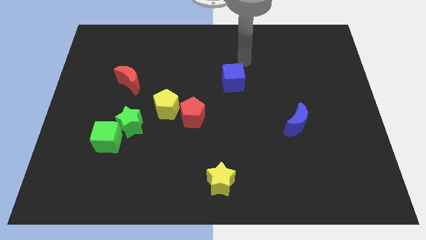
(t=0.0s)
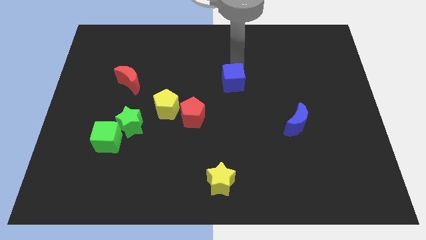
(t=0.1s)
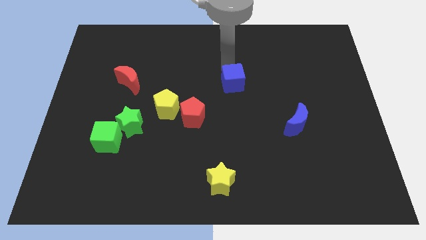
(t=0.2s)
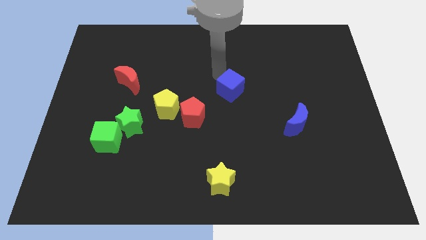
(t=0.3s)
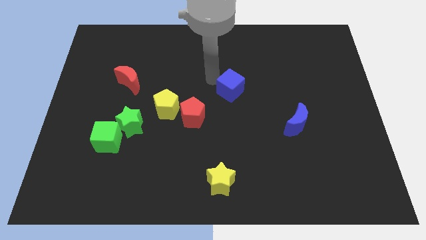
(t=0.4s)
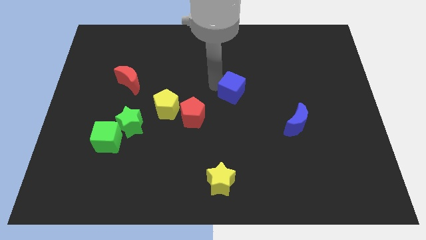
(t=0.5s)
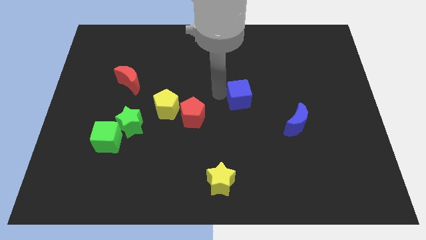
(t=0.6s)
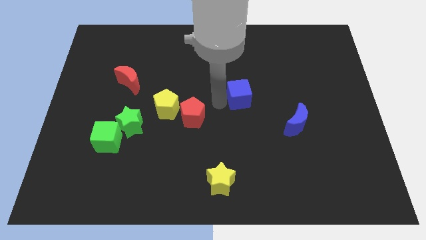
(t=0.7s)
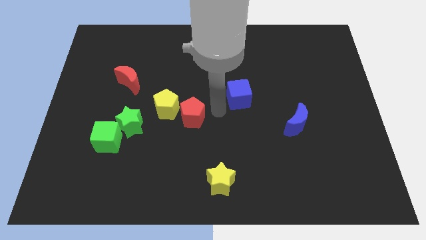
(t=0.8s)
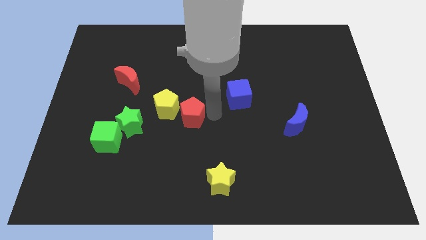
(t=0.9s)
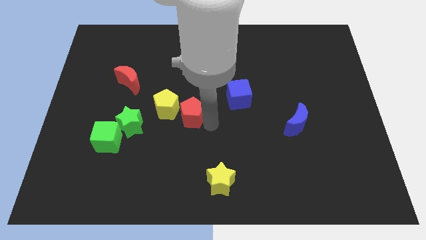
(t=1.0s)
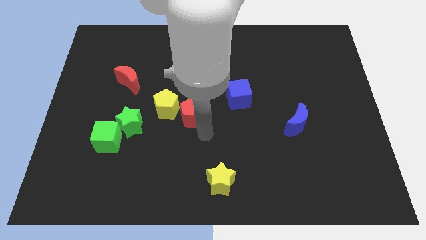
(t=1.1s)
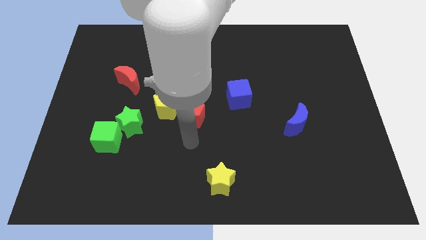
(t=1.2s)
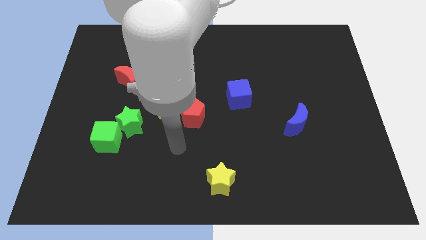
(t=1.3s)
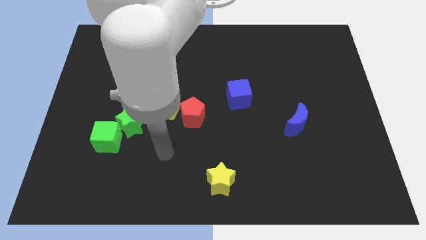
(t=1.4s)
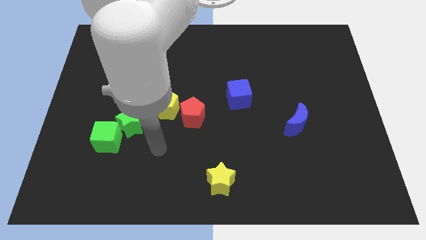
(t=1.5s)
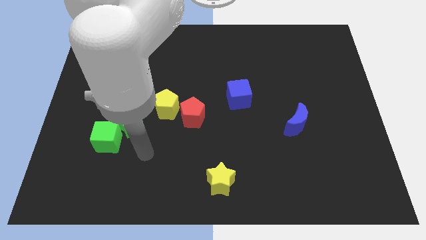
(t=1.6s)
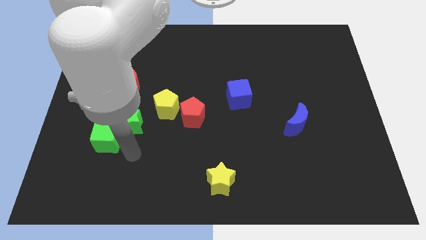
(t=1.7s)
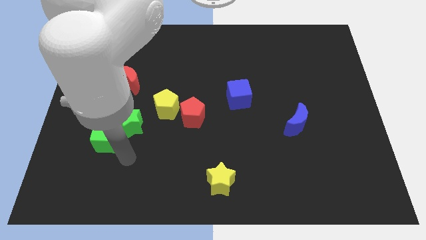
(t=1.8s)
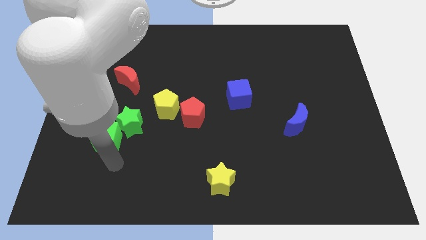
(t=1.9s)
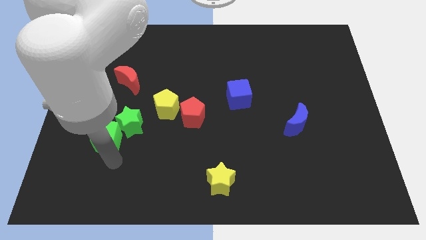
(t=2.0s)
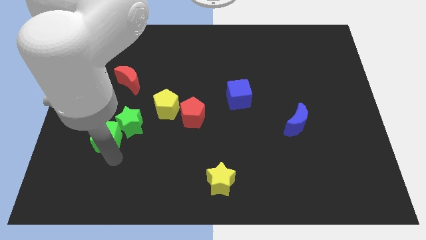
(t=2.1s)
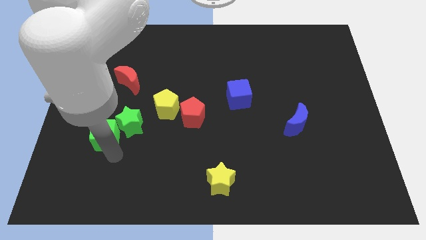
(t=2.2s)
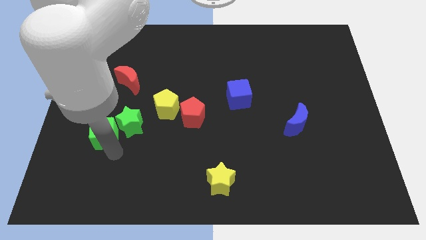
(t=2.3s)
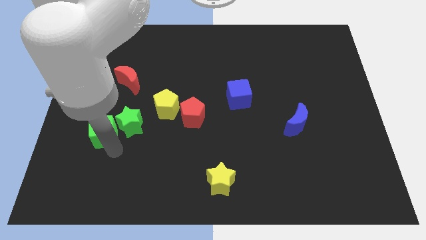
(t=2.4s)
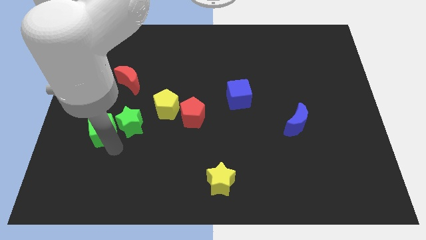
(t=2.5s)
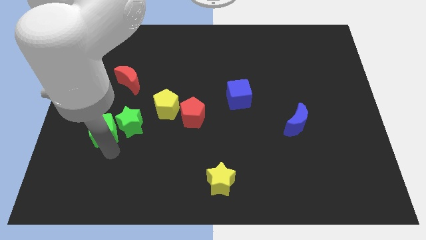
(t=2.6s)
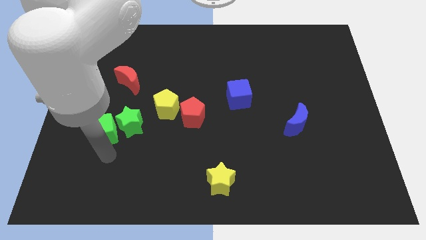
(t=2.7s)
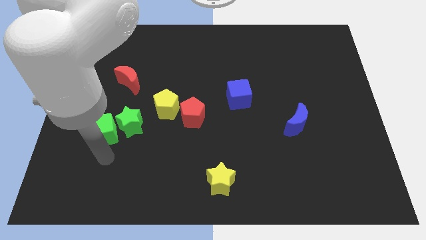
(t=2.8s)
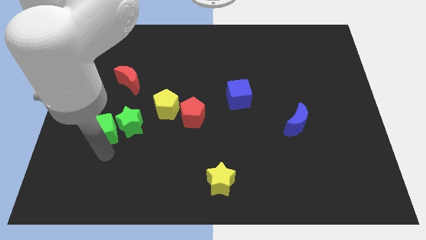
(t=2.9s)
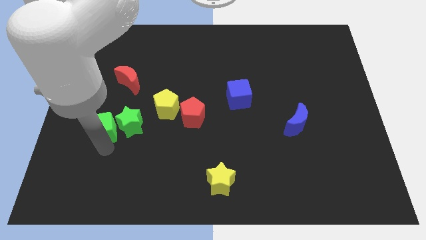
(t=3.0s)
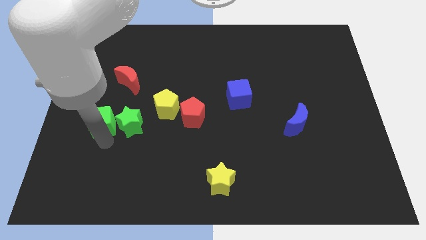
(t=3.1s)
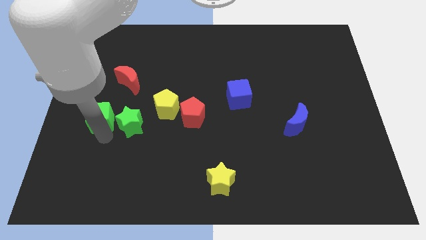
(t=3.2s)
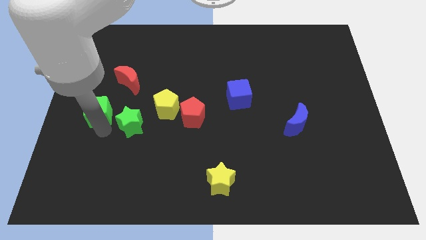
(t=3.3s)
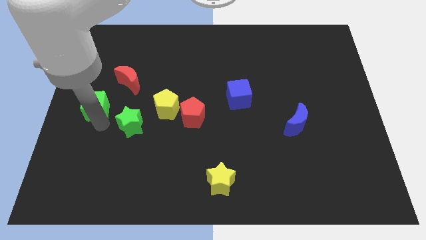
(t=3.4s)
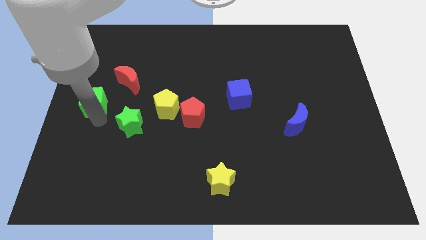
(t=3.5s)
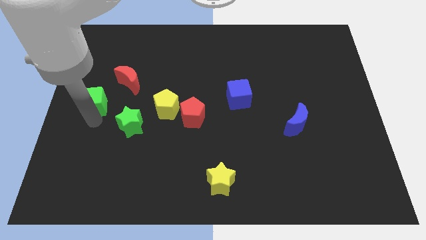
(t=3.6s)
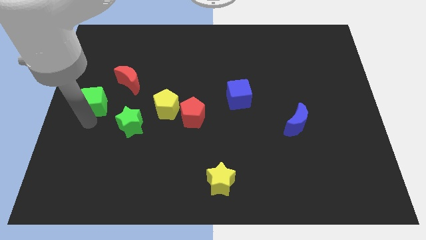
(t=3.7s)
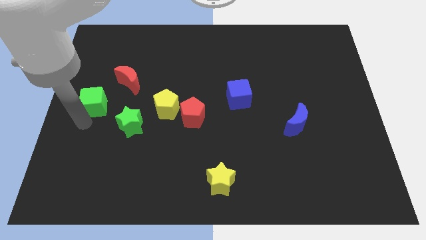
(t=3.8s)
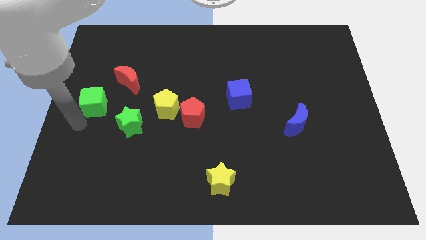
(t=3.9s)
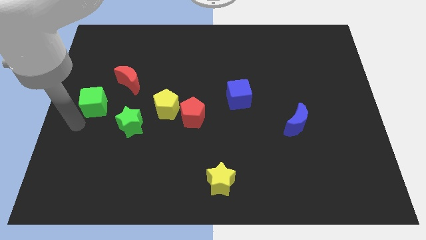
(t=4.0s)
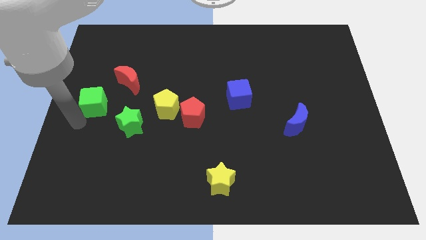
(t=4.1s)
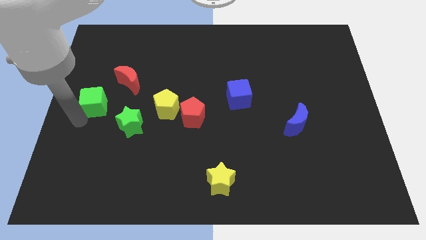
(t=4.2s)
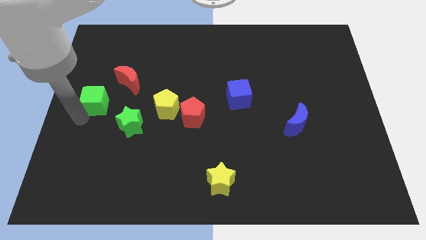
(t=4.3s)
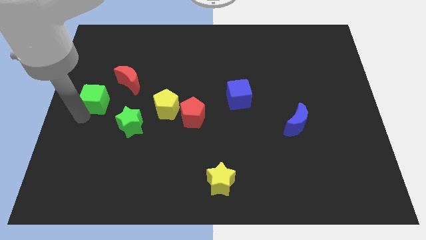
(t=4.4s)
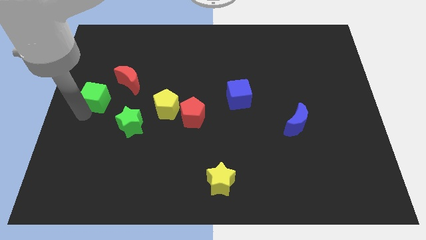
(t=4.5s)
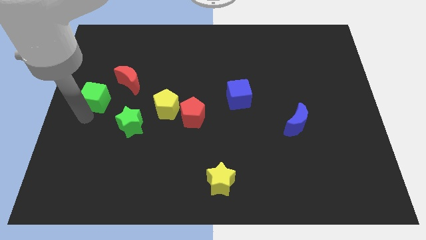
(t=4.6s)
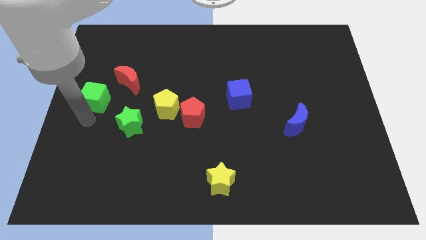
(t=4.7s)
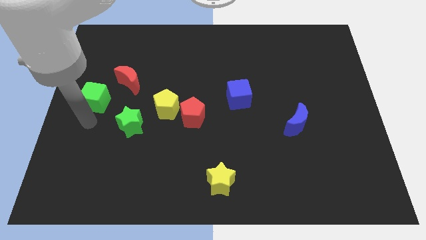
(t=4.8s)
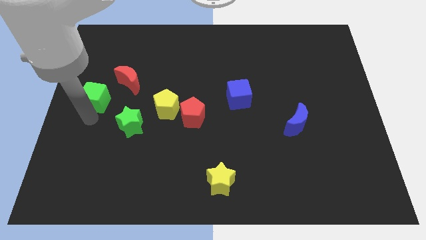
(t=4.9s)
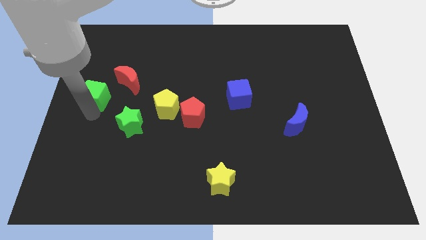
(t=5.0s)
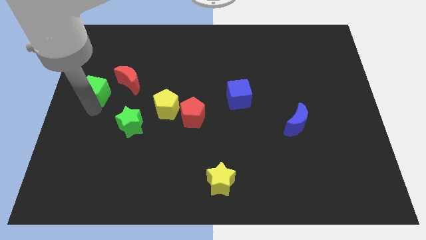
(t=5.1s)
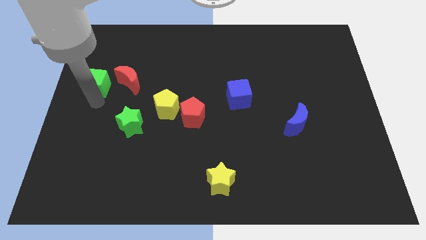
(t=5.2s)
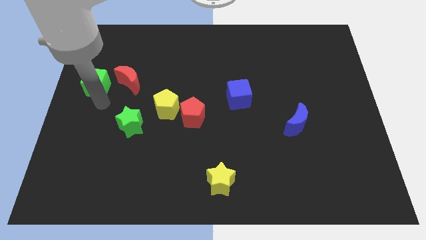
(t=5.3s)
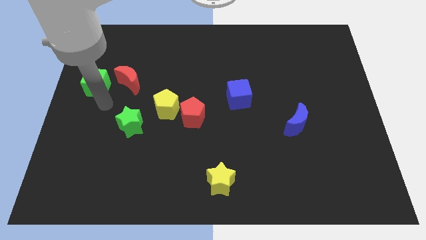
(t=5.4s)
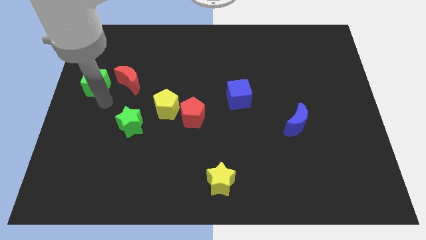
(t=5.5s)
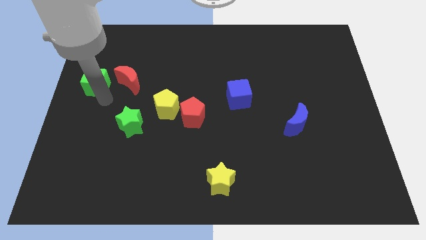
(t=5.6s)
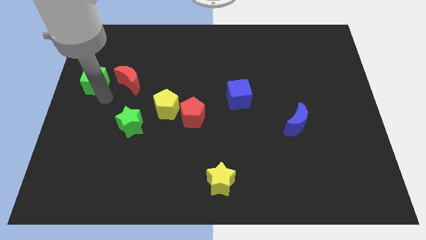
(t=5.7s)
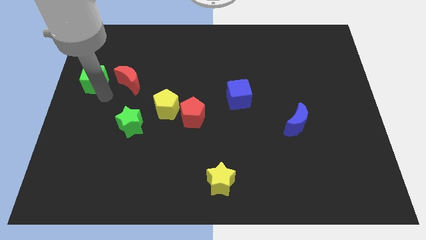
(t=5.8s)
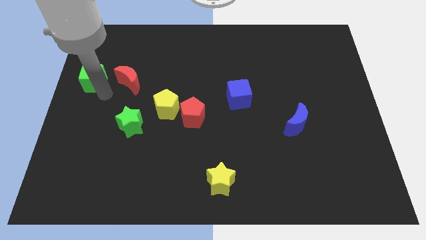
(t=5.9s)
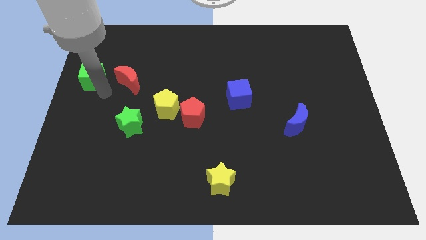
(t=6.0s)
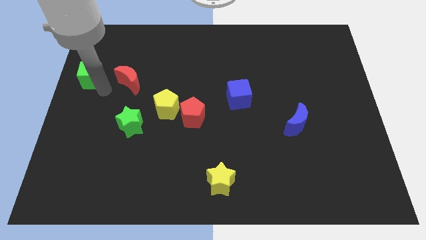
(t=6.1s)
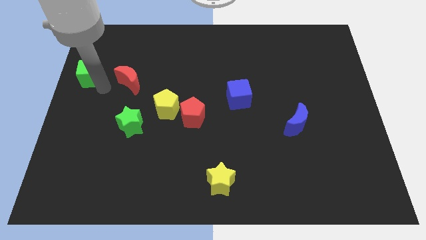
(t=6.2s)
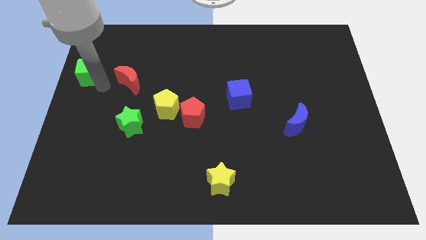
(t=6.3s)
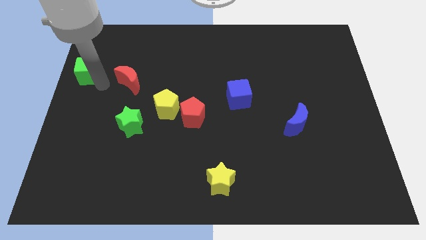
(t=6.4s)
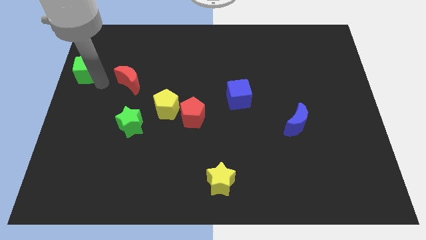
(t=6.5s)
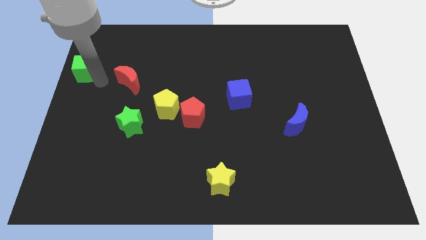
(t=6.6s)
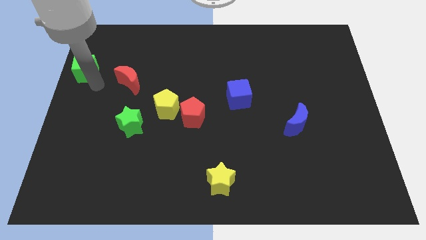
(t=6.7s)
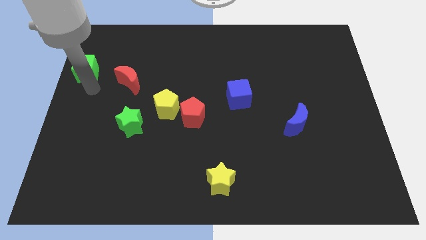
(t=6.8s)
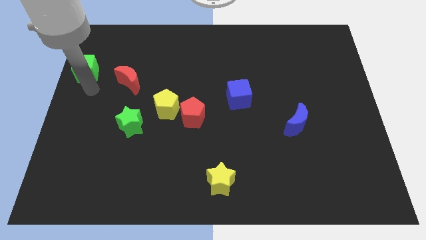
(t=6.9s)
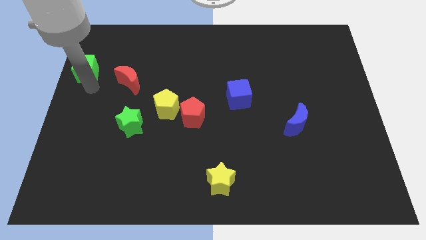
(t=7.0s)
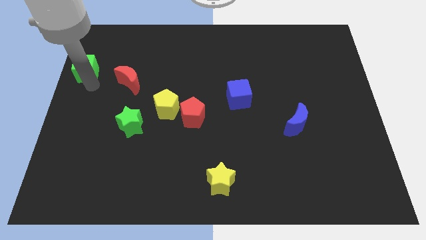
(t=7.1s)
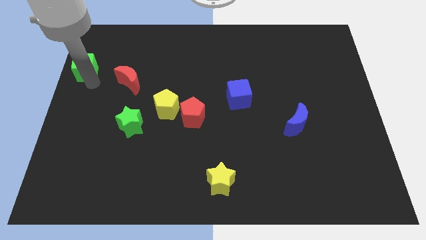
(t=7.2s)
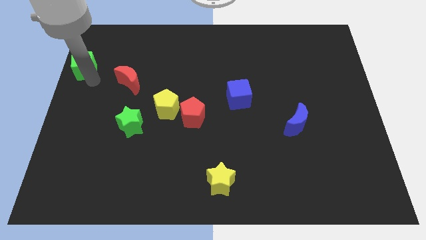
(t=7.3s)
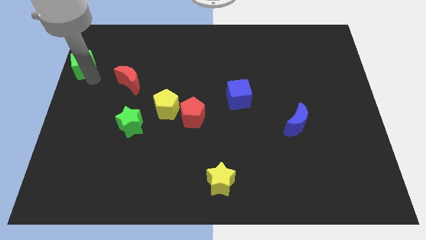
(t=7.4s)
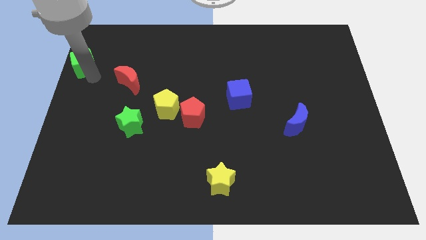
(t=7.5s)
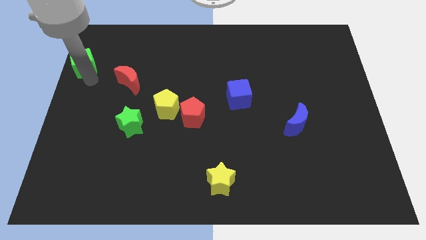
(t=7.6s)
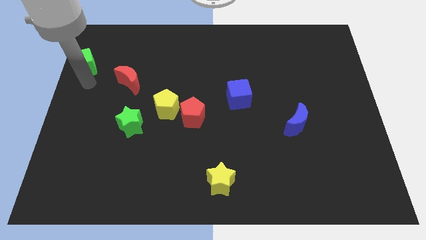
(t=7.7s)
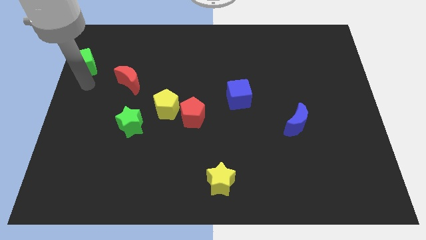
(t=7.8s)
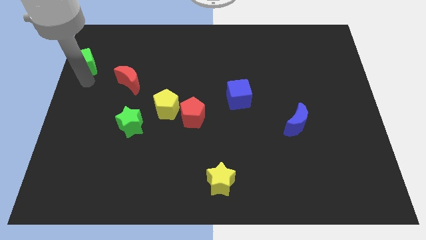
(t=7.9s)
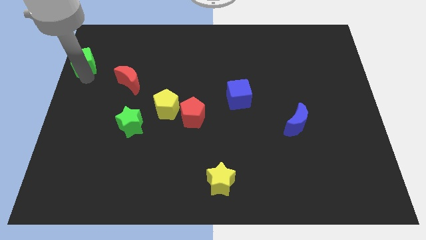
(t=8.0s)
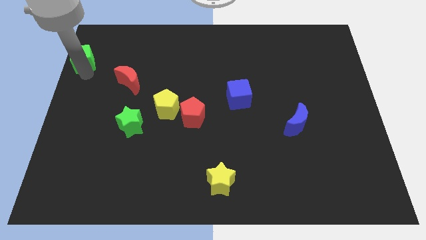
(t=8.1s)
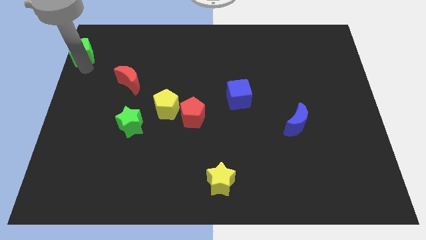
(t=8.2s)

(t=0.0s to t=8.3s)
put the green cube to the top left corner
